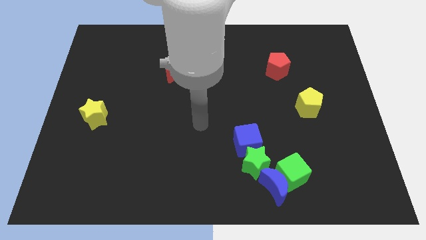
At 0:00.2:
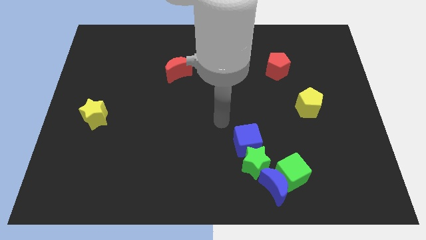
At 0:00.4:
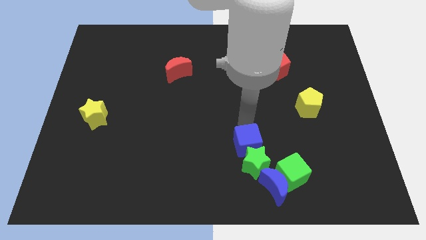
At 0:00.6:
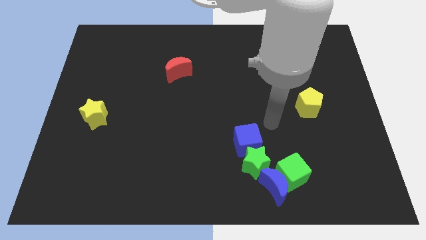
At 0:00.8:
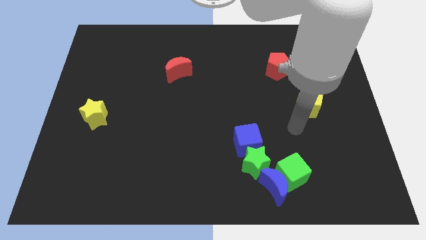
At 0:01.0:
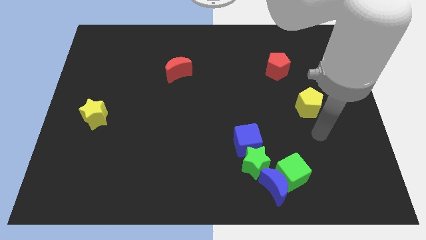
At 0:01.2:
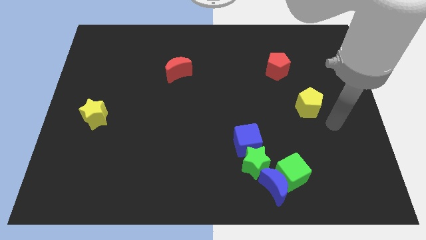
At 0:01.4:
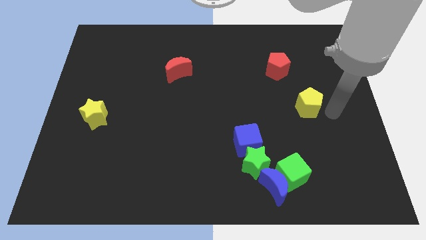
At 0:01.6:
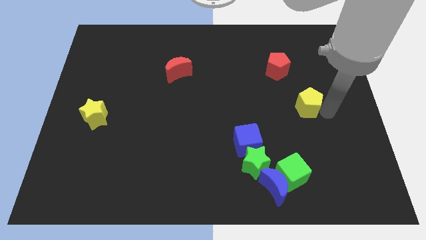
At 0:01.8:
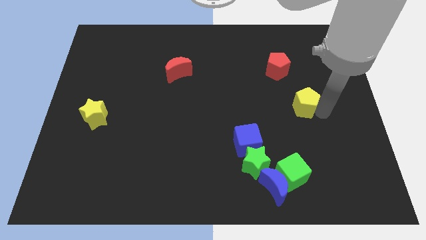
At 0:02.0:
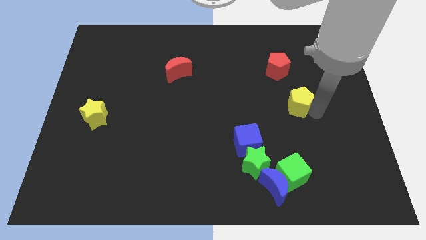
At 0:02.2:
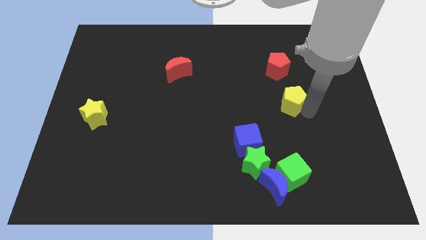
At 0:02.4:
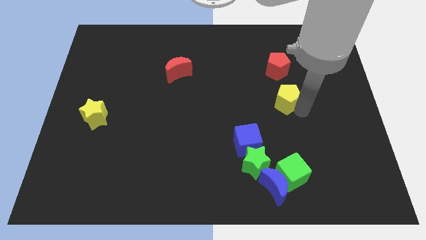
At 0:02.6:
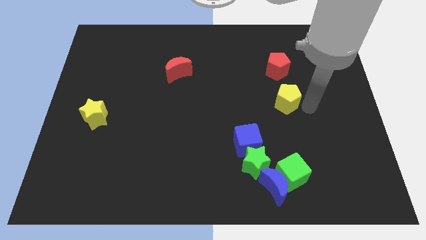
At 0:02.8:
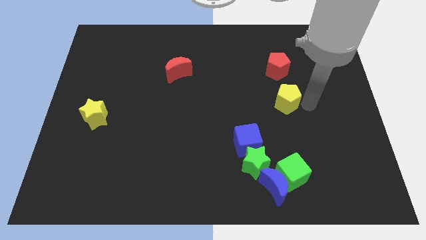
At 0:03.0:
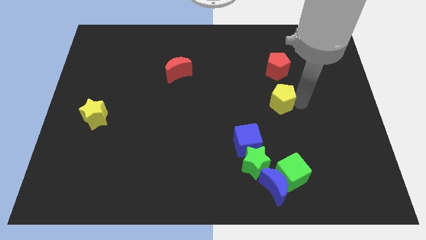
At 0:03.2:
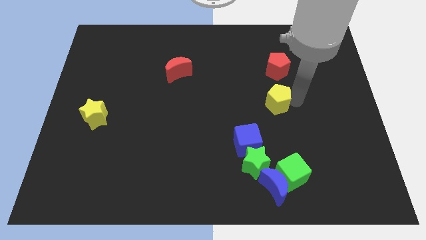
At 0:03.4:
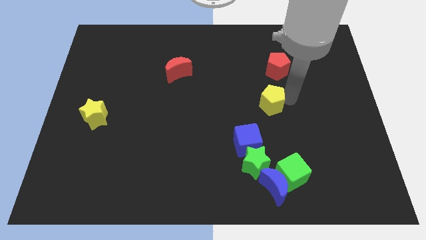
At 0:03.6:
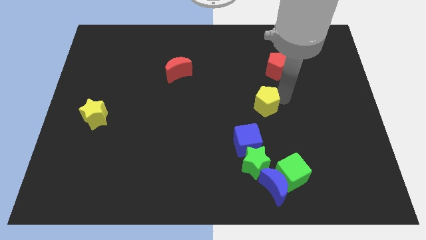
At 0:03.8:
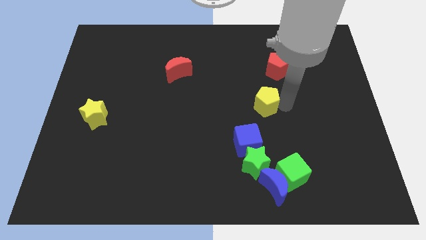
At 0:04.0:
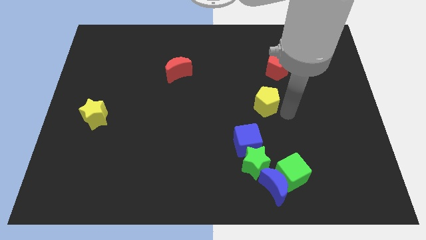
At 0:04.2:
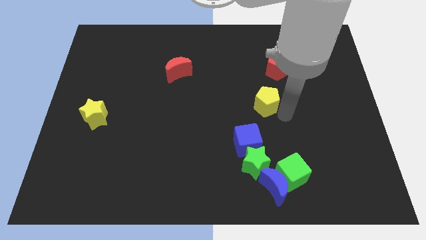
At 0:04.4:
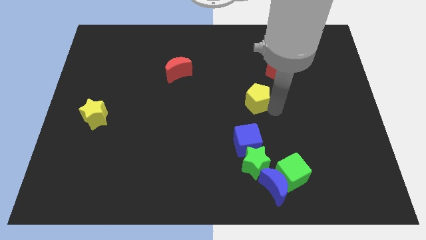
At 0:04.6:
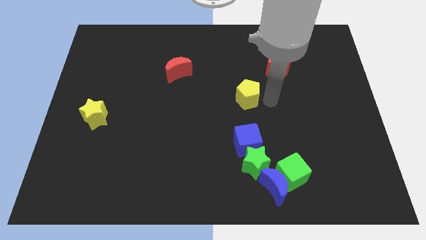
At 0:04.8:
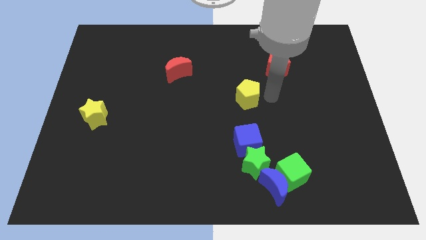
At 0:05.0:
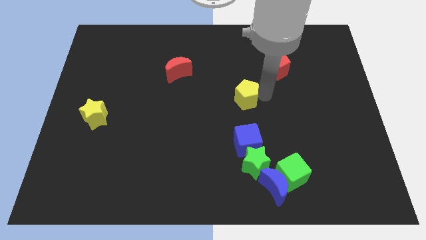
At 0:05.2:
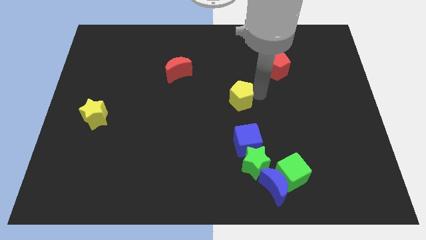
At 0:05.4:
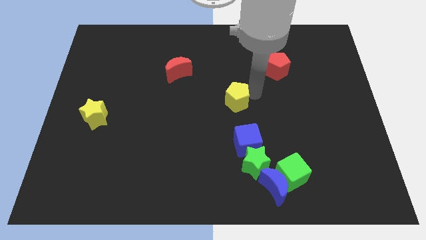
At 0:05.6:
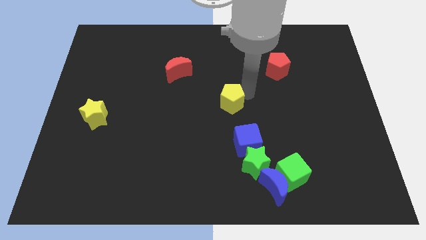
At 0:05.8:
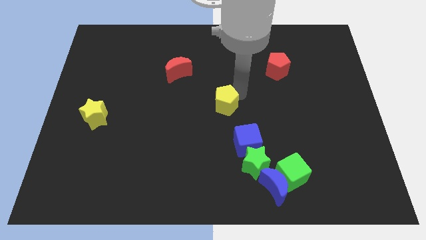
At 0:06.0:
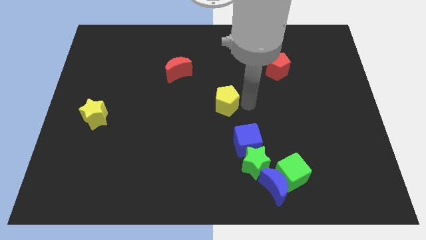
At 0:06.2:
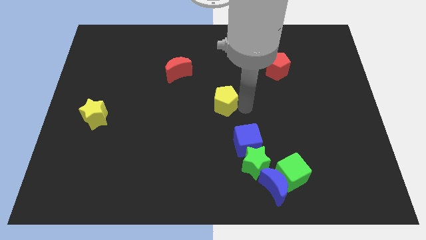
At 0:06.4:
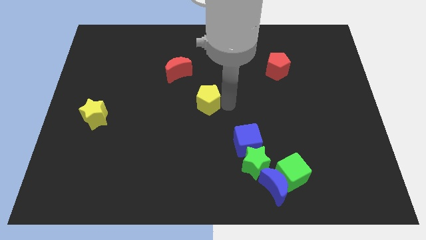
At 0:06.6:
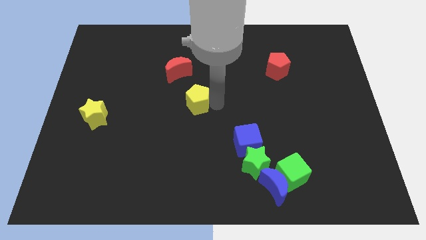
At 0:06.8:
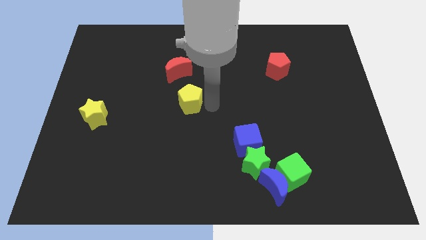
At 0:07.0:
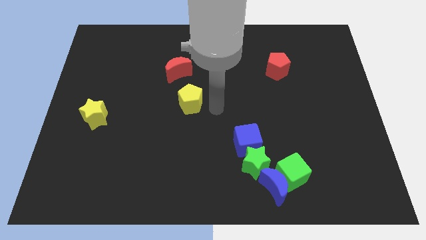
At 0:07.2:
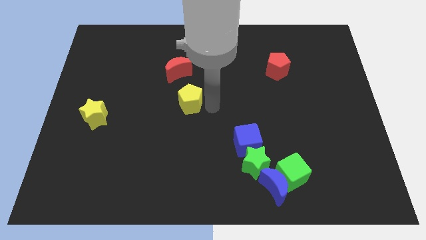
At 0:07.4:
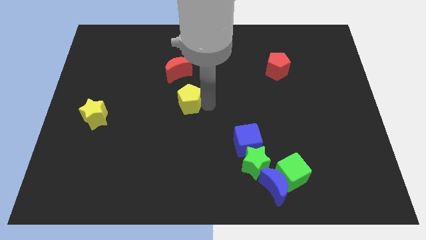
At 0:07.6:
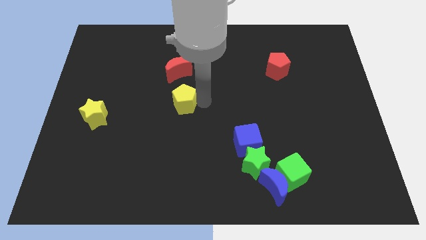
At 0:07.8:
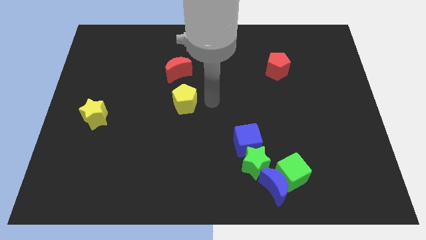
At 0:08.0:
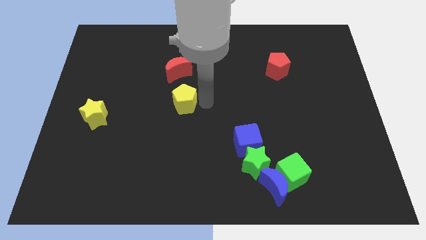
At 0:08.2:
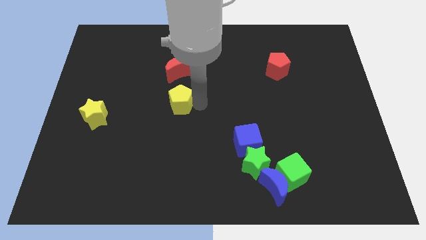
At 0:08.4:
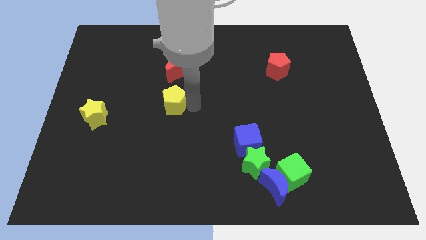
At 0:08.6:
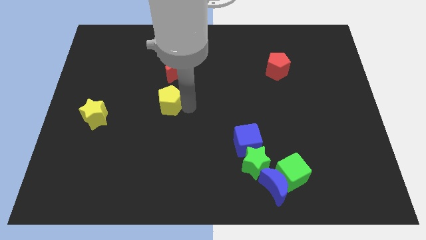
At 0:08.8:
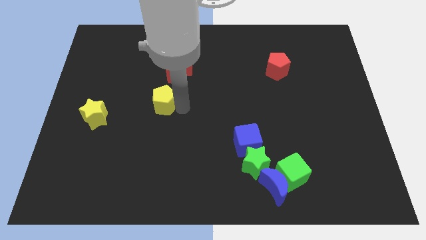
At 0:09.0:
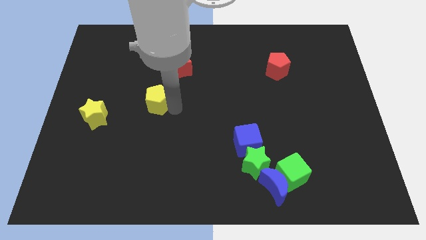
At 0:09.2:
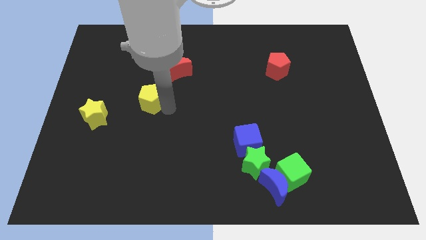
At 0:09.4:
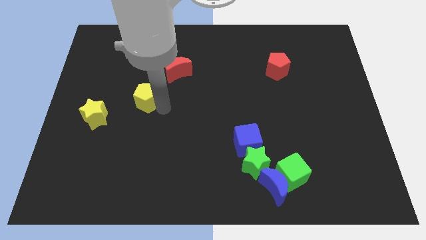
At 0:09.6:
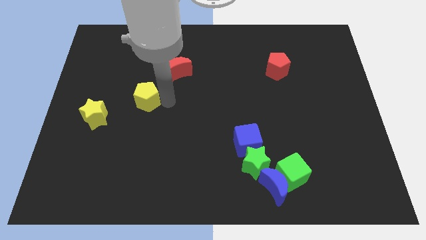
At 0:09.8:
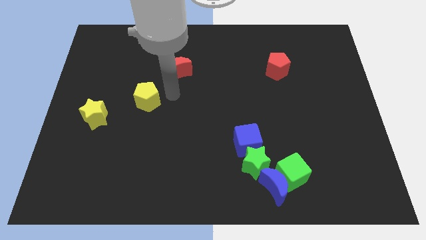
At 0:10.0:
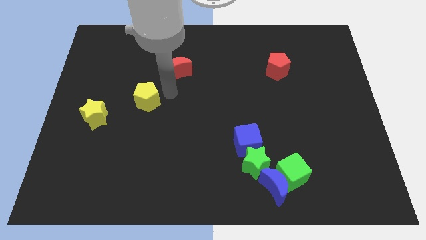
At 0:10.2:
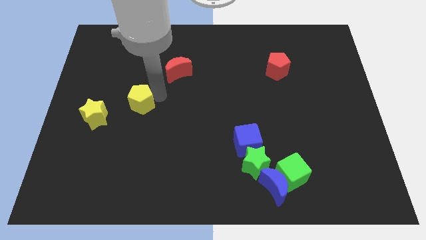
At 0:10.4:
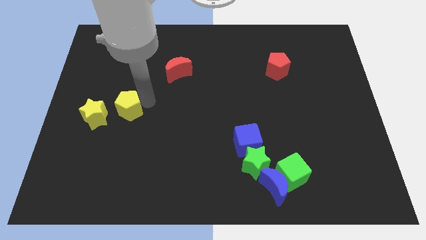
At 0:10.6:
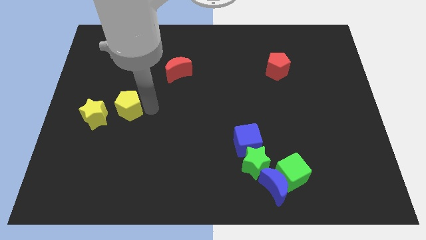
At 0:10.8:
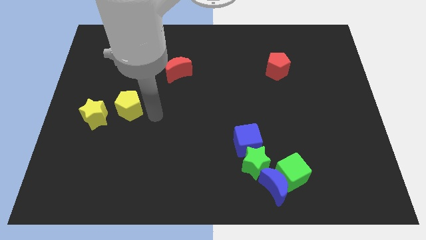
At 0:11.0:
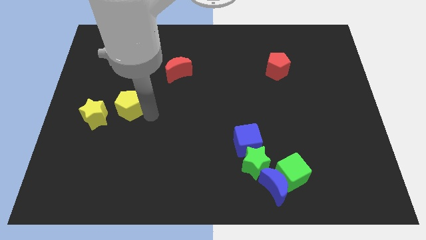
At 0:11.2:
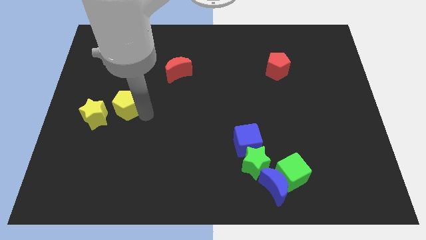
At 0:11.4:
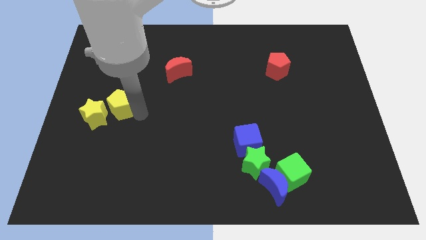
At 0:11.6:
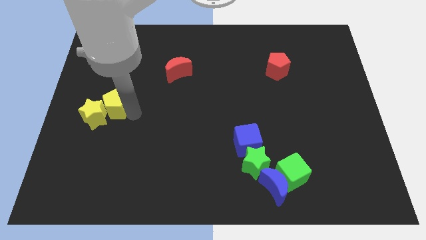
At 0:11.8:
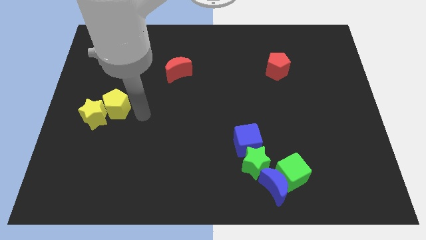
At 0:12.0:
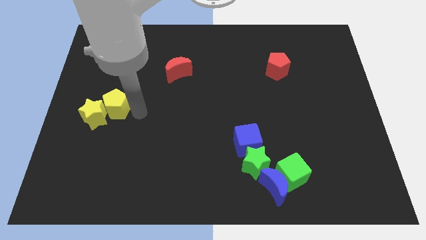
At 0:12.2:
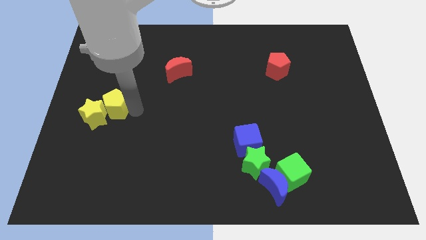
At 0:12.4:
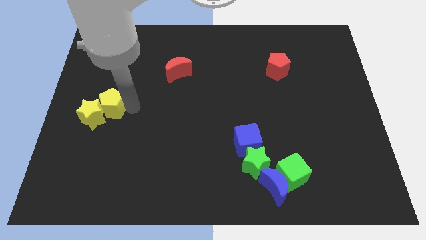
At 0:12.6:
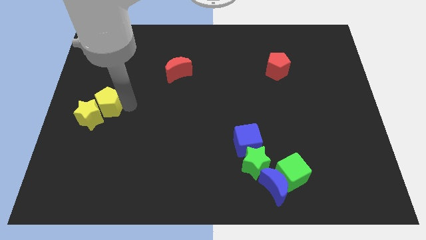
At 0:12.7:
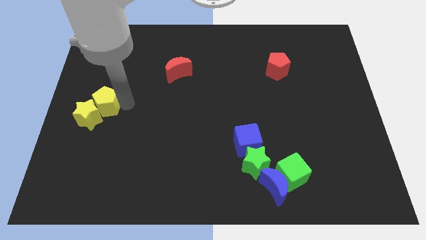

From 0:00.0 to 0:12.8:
push the yellow pentagon to the left side
